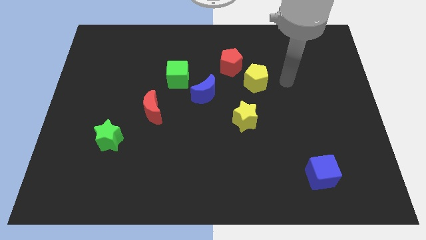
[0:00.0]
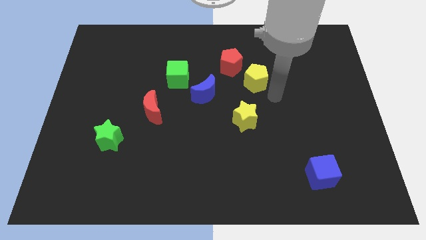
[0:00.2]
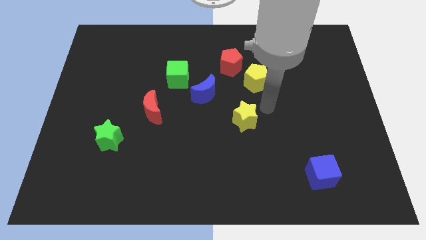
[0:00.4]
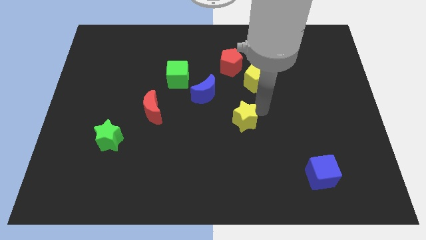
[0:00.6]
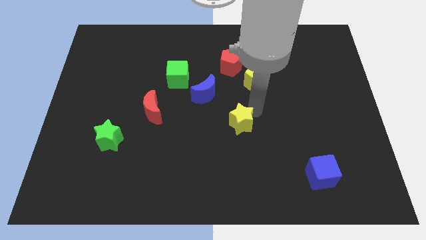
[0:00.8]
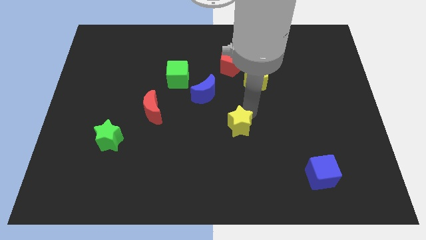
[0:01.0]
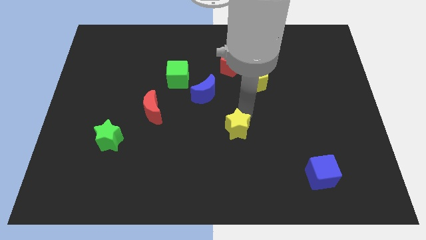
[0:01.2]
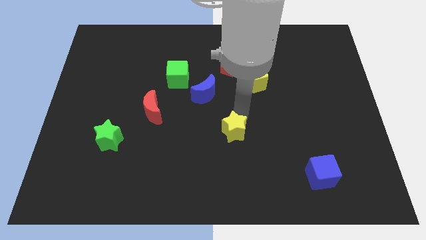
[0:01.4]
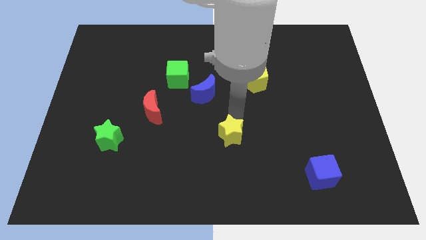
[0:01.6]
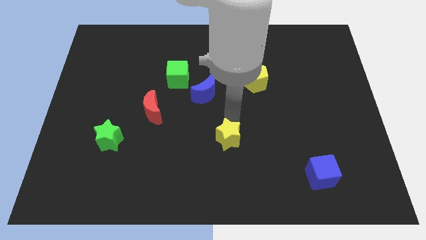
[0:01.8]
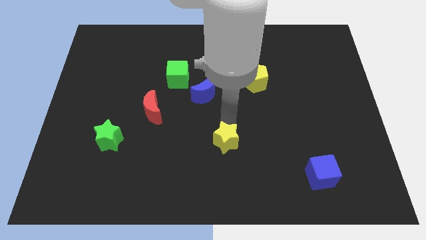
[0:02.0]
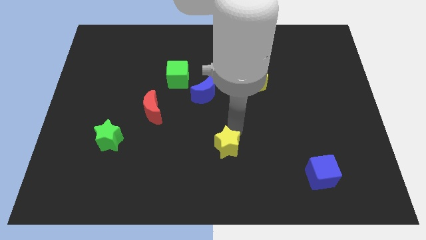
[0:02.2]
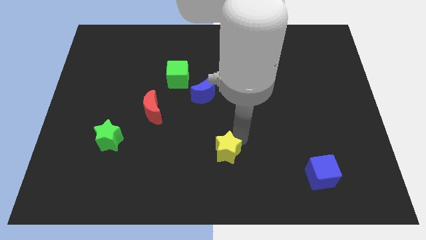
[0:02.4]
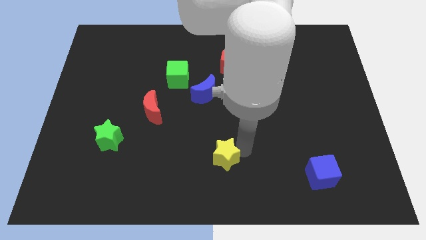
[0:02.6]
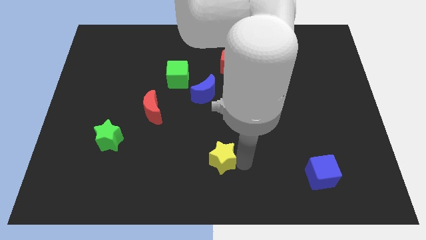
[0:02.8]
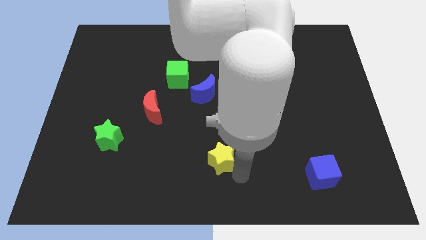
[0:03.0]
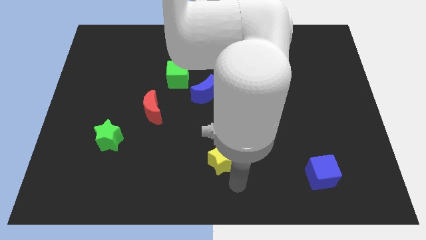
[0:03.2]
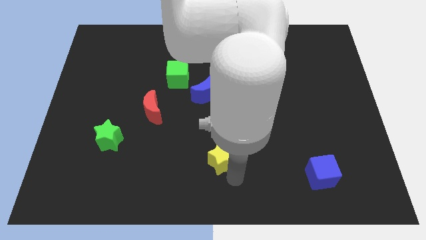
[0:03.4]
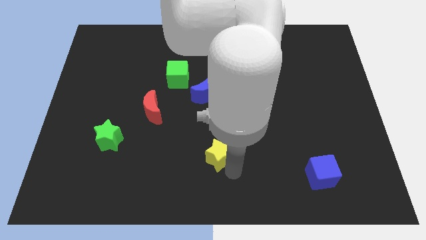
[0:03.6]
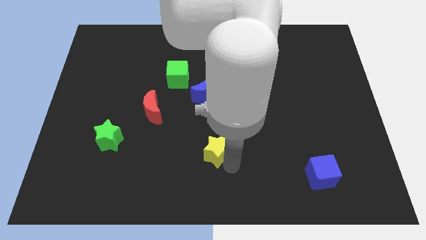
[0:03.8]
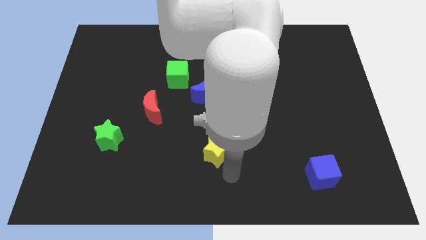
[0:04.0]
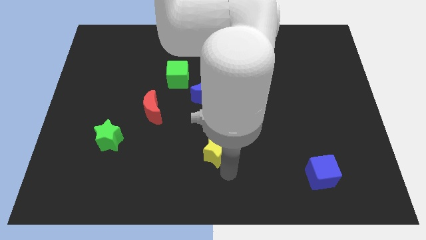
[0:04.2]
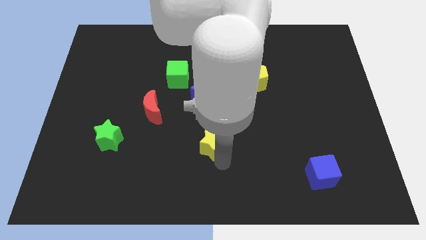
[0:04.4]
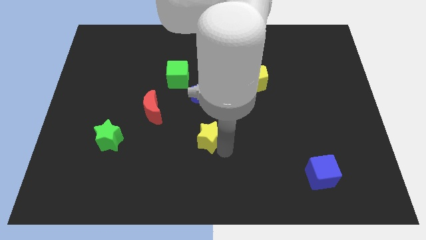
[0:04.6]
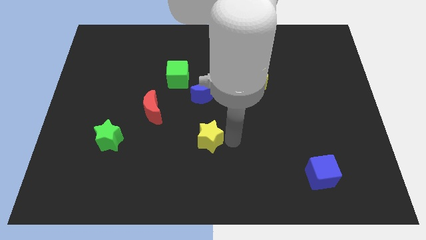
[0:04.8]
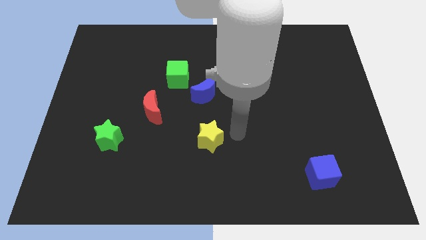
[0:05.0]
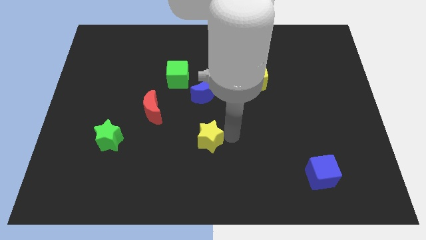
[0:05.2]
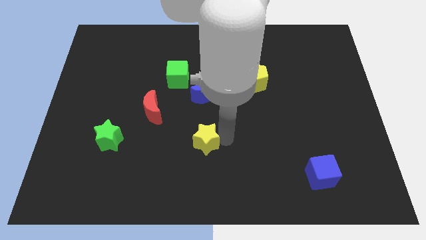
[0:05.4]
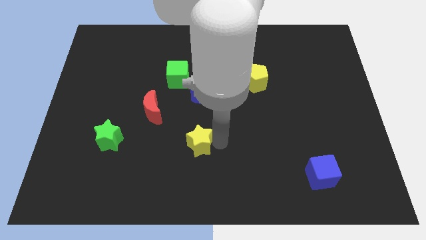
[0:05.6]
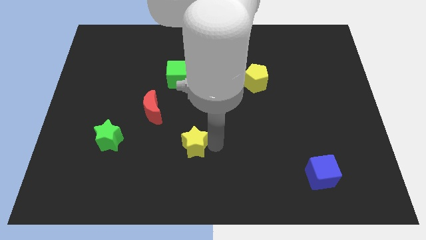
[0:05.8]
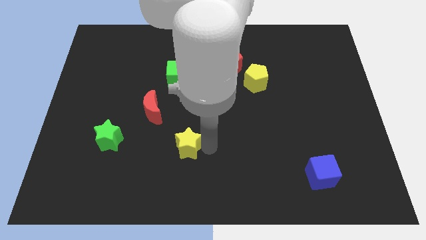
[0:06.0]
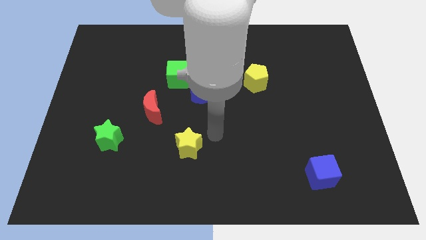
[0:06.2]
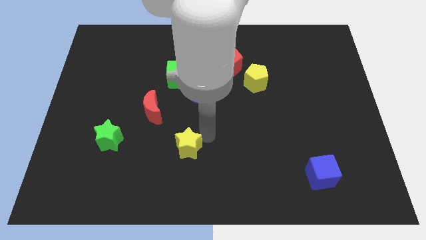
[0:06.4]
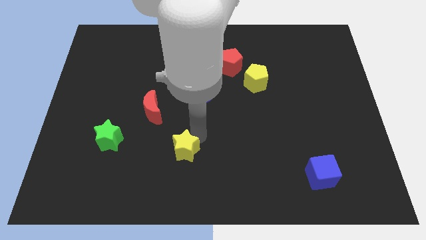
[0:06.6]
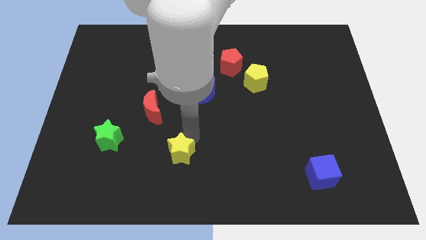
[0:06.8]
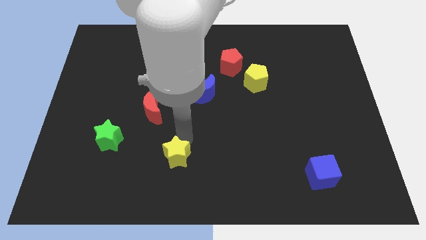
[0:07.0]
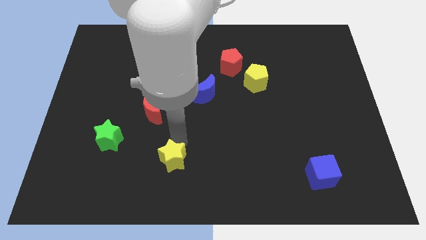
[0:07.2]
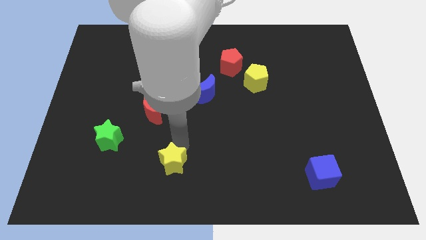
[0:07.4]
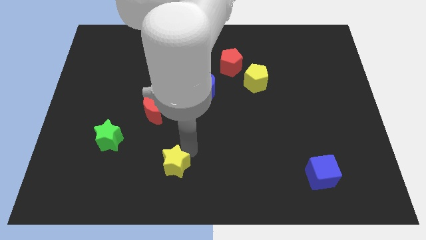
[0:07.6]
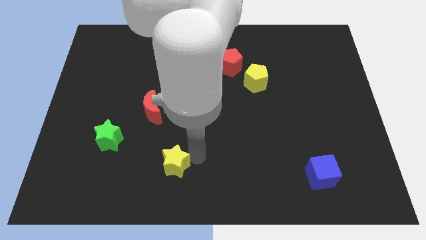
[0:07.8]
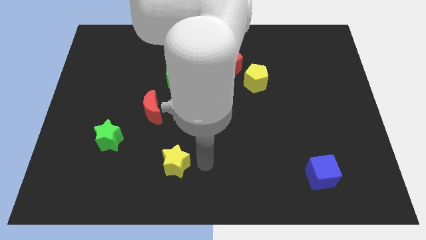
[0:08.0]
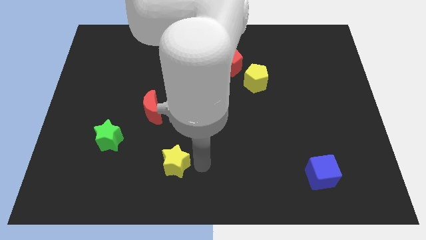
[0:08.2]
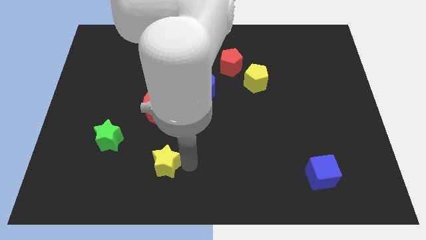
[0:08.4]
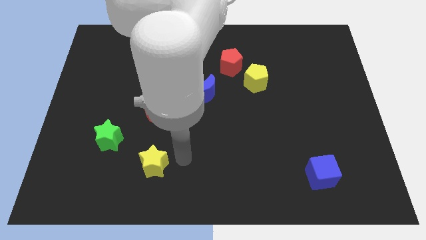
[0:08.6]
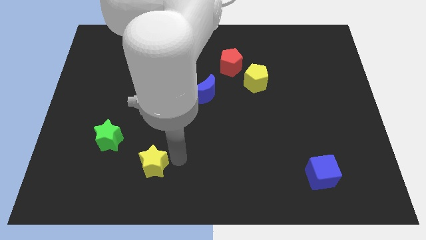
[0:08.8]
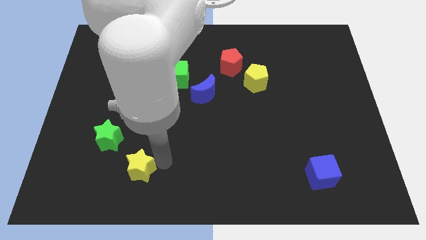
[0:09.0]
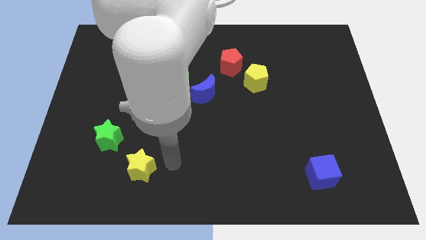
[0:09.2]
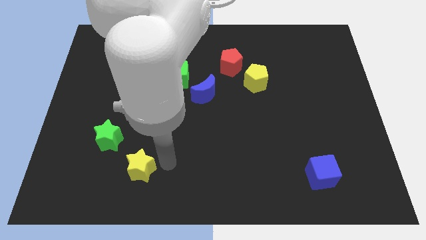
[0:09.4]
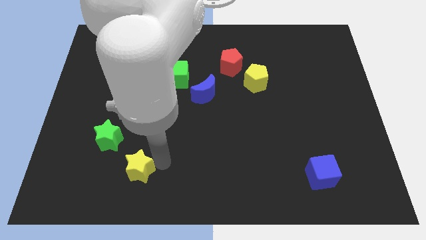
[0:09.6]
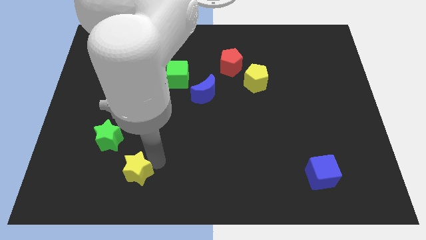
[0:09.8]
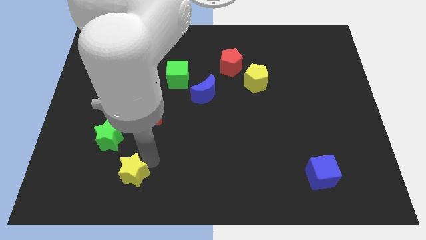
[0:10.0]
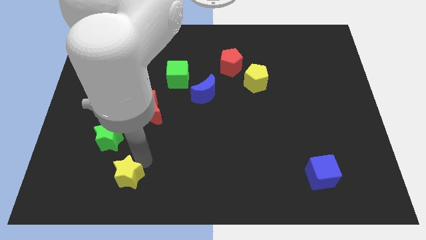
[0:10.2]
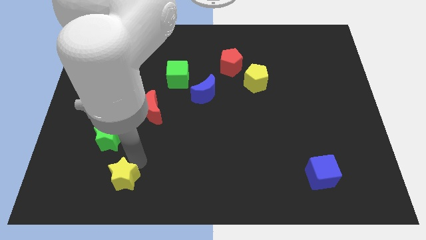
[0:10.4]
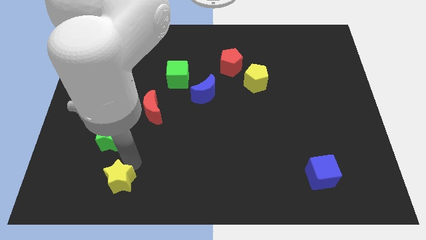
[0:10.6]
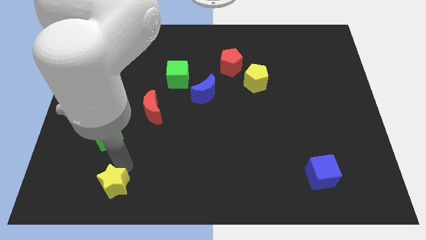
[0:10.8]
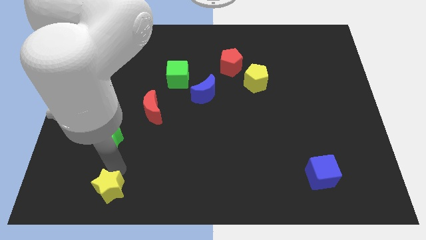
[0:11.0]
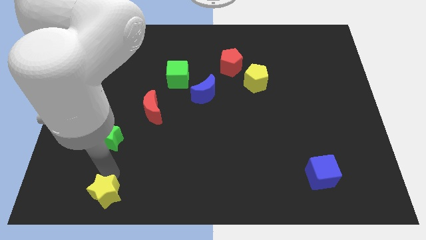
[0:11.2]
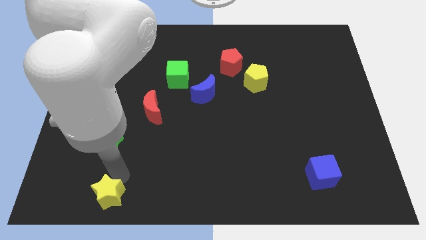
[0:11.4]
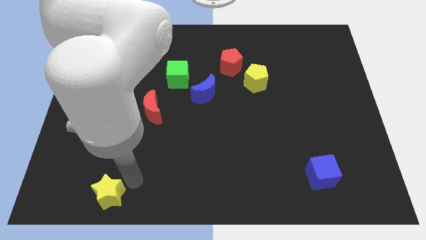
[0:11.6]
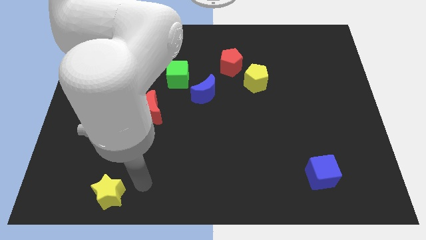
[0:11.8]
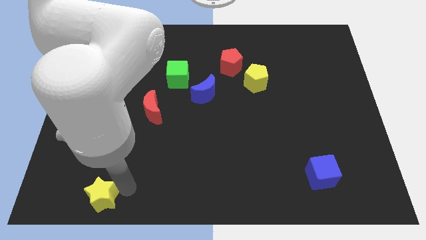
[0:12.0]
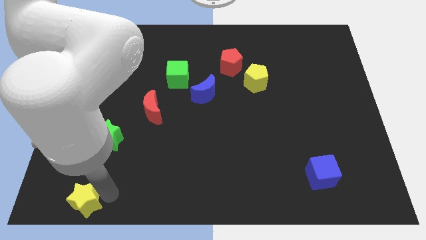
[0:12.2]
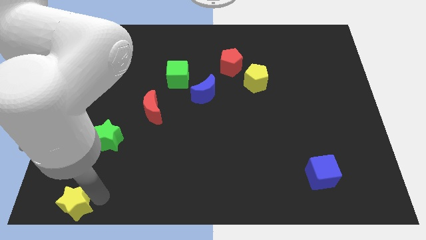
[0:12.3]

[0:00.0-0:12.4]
put the yellow star to the bottom left corner
